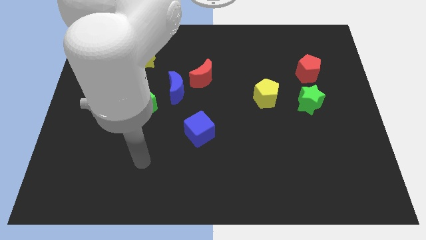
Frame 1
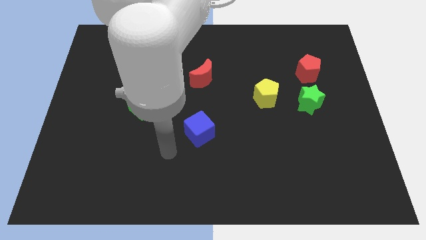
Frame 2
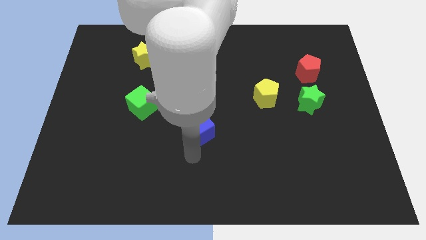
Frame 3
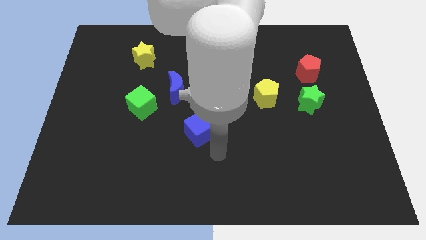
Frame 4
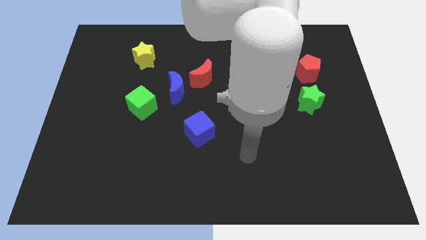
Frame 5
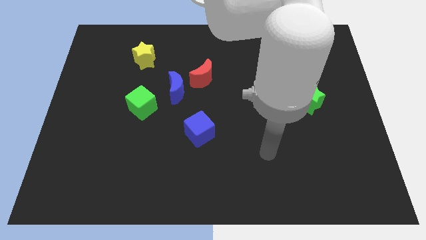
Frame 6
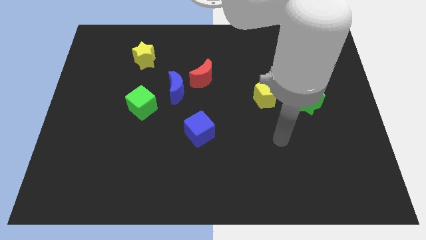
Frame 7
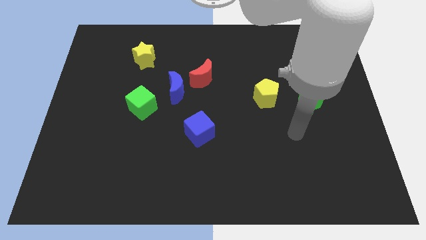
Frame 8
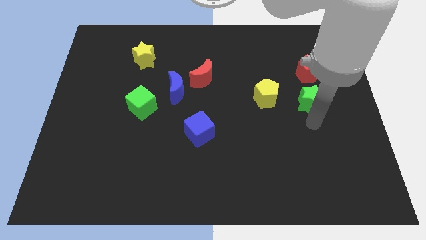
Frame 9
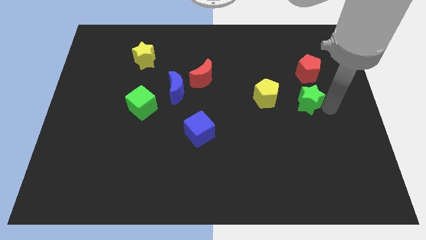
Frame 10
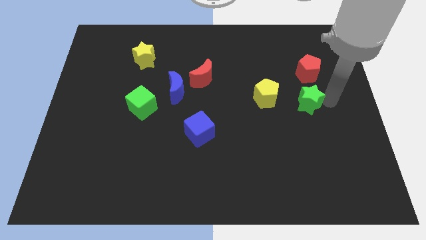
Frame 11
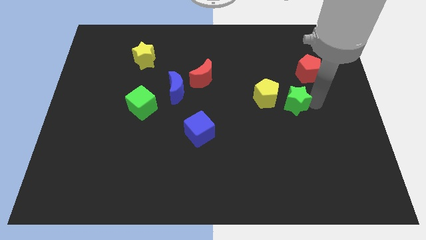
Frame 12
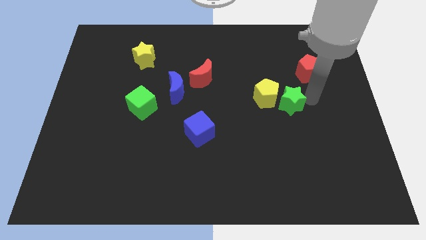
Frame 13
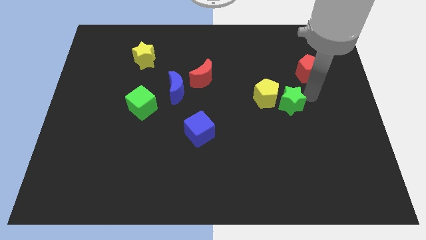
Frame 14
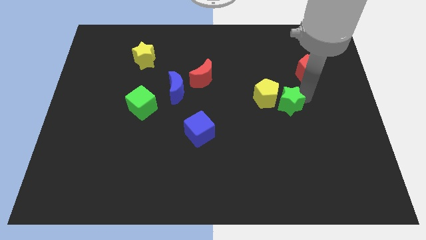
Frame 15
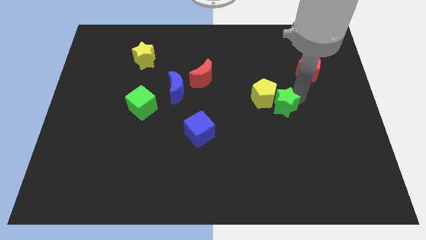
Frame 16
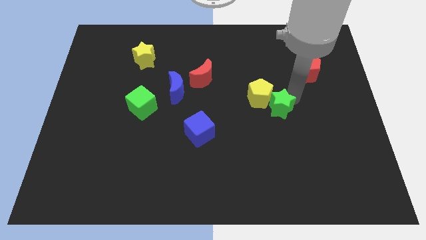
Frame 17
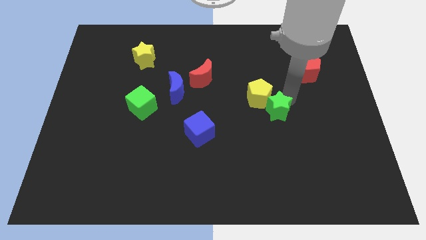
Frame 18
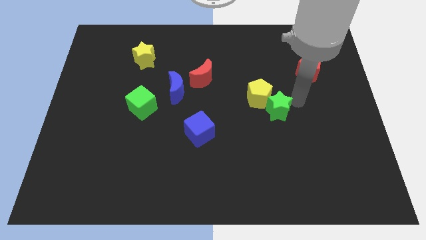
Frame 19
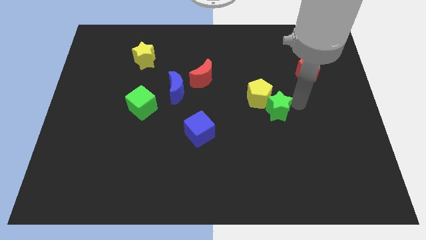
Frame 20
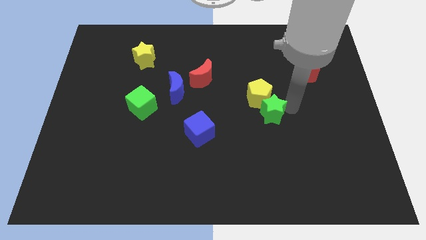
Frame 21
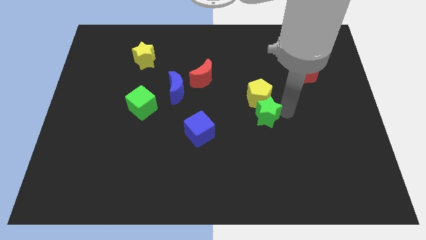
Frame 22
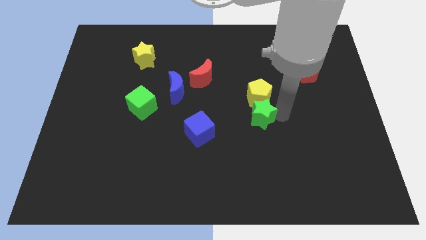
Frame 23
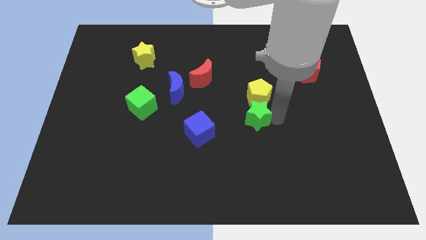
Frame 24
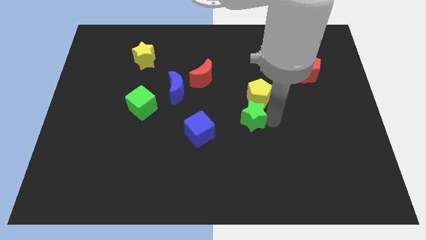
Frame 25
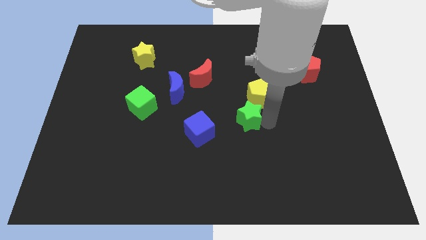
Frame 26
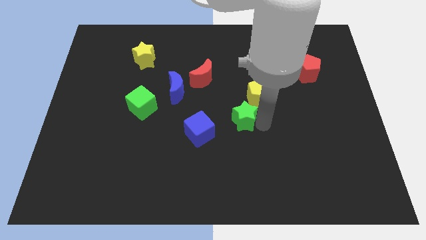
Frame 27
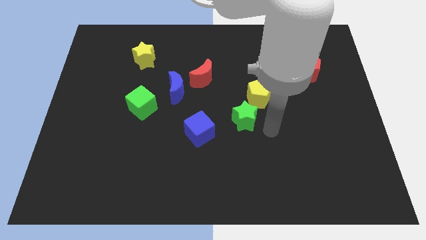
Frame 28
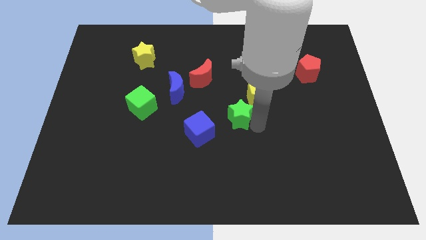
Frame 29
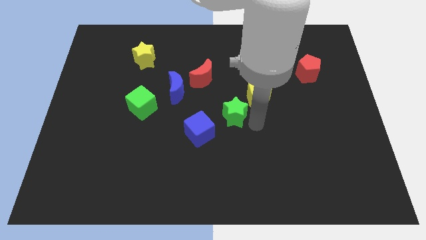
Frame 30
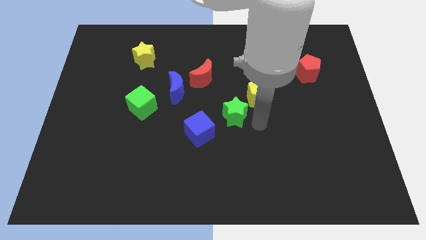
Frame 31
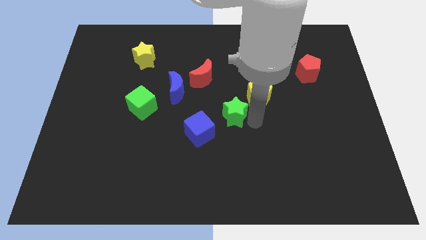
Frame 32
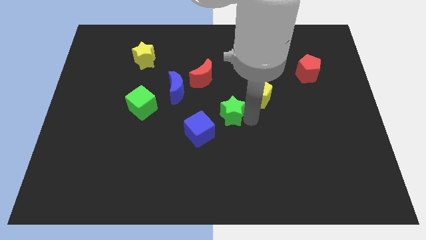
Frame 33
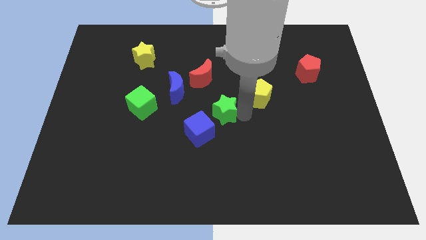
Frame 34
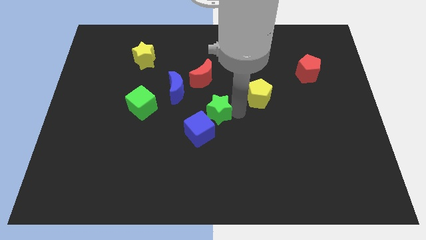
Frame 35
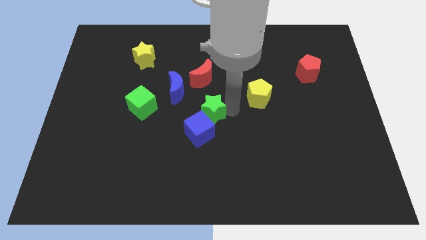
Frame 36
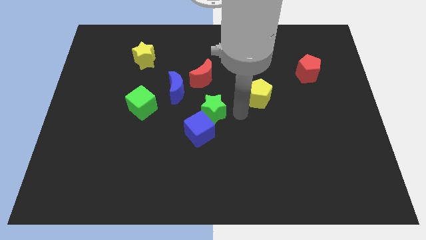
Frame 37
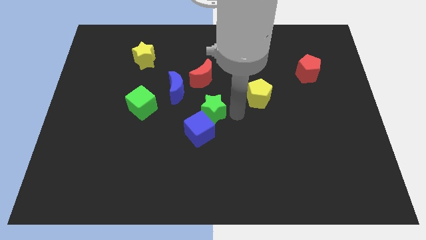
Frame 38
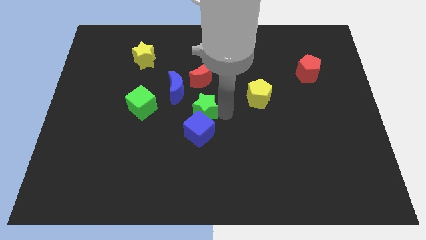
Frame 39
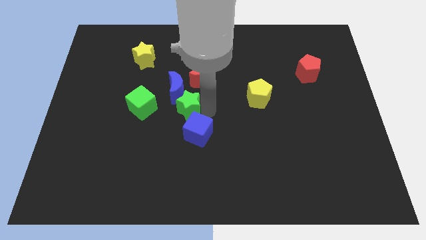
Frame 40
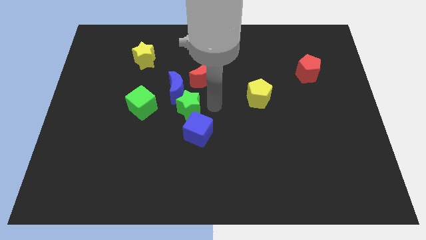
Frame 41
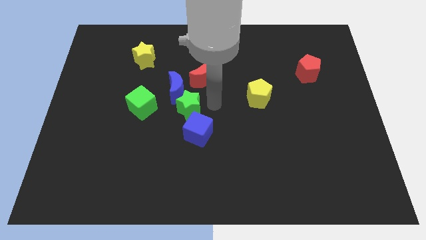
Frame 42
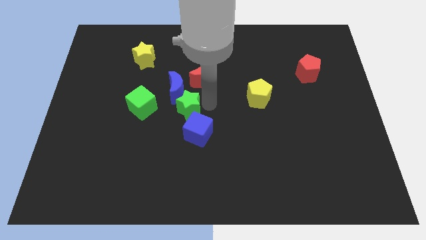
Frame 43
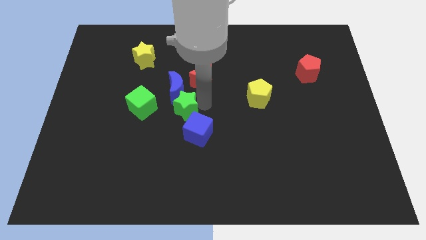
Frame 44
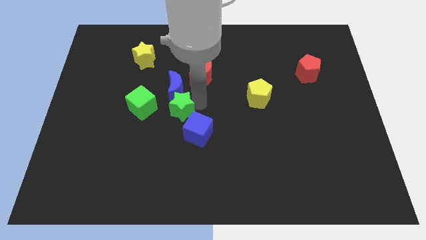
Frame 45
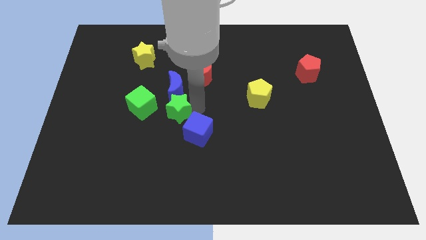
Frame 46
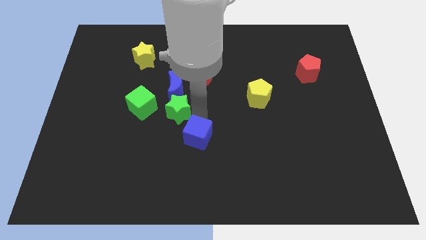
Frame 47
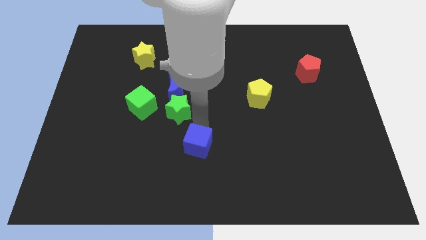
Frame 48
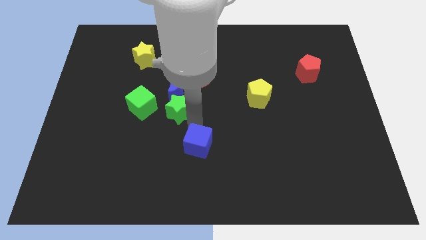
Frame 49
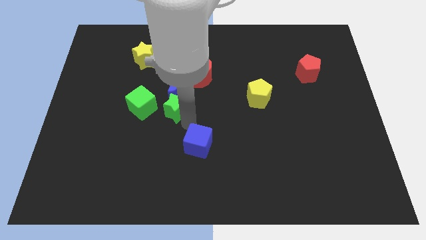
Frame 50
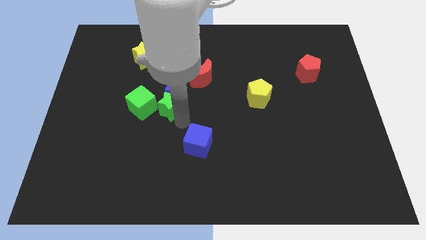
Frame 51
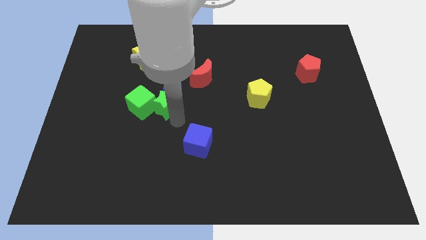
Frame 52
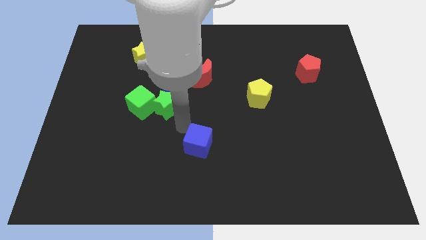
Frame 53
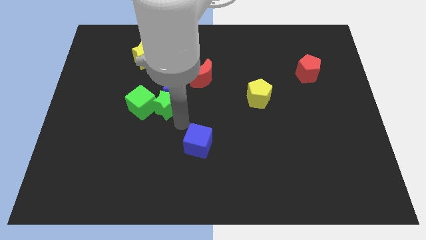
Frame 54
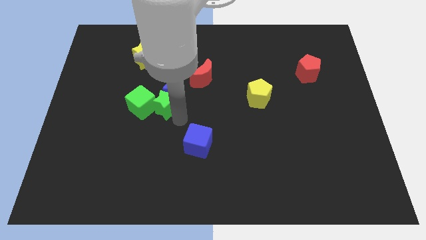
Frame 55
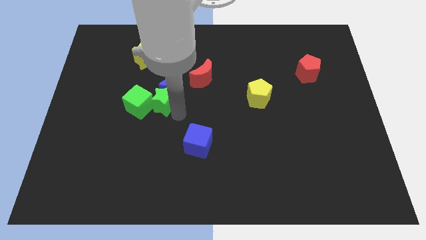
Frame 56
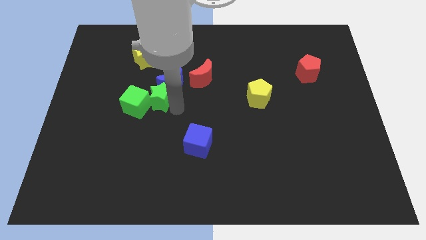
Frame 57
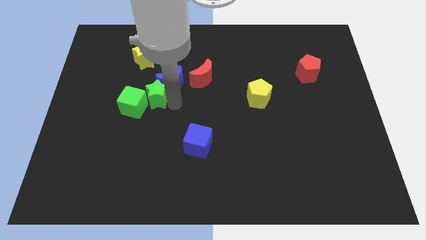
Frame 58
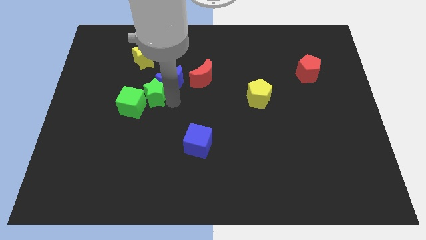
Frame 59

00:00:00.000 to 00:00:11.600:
put the green star left of the blue moon

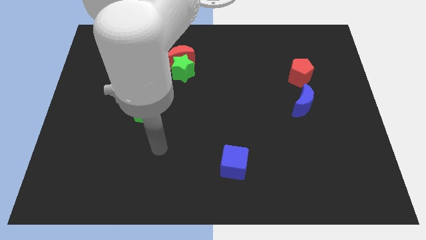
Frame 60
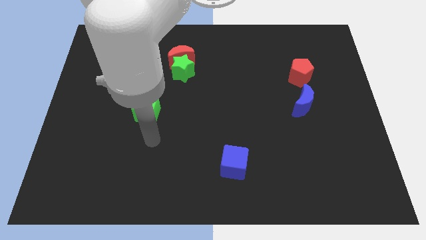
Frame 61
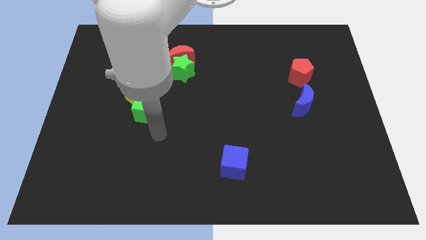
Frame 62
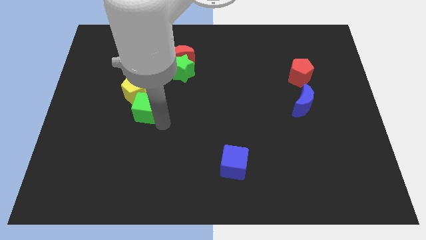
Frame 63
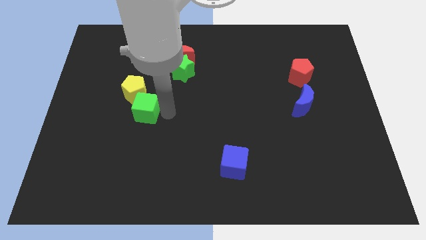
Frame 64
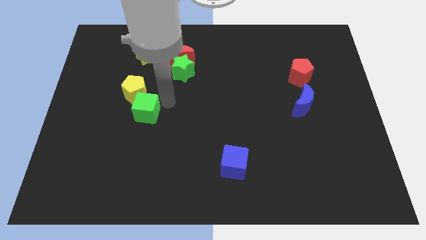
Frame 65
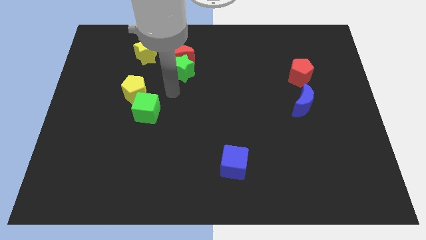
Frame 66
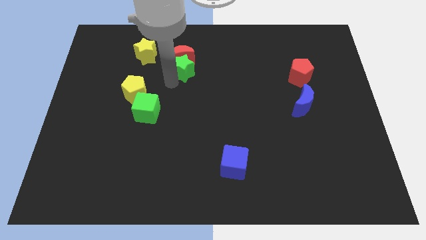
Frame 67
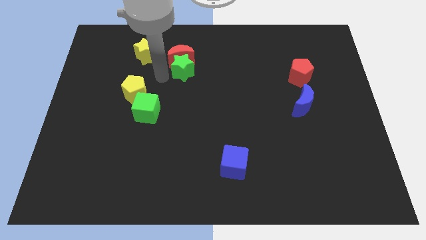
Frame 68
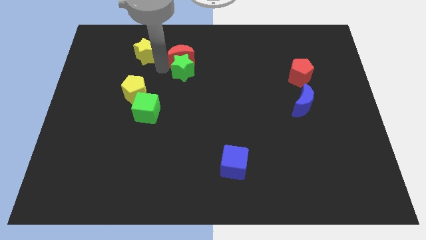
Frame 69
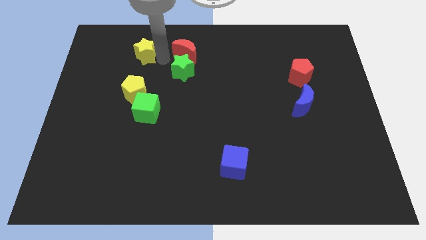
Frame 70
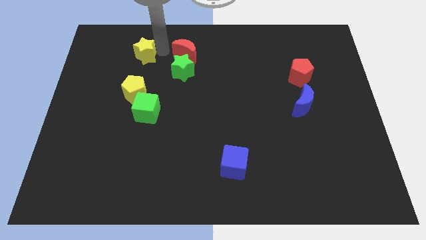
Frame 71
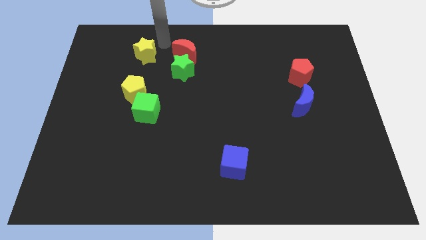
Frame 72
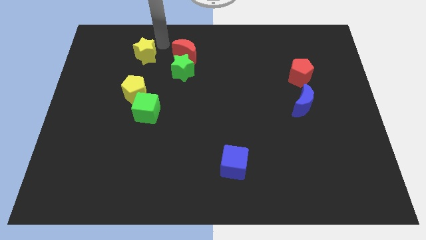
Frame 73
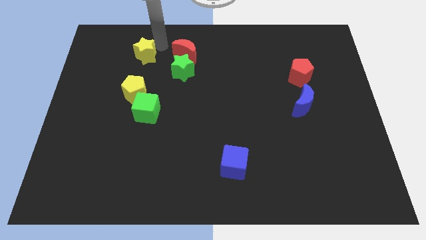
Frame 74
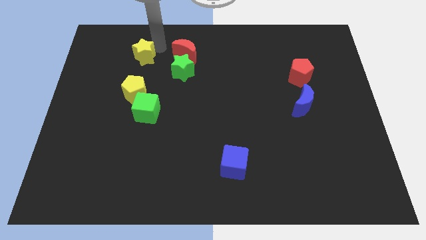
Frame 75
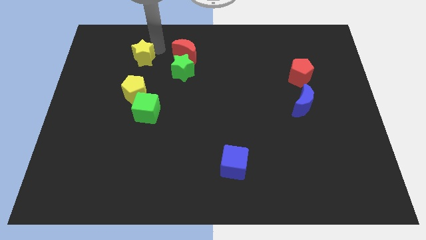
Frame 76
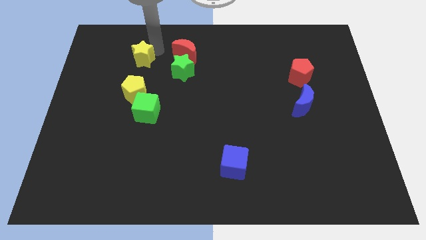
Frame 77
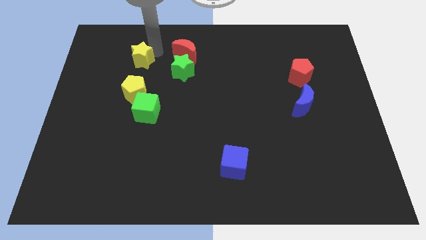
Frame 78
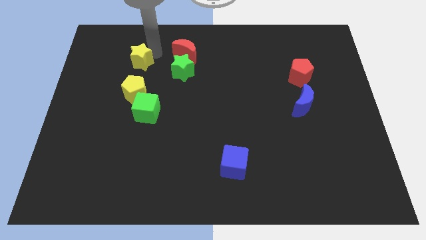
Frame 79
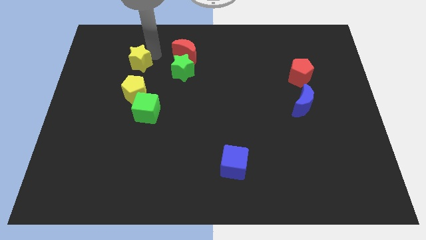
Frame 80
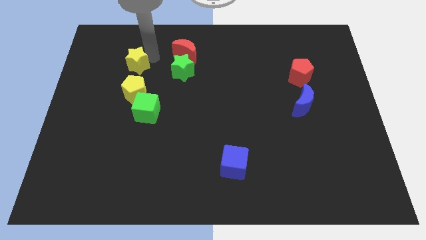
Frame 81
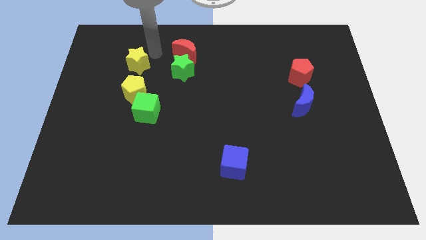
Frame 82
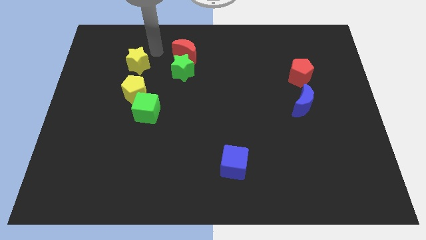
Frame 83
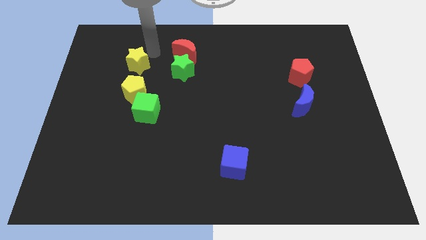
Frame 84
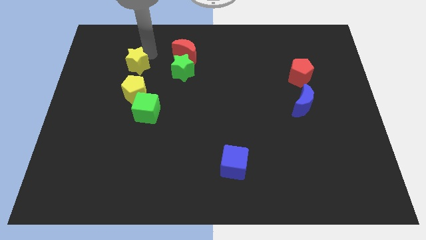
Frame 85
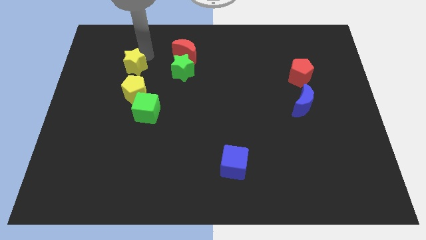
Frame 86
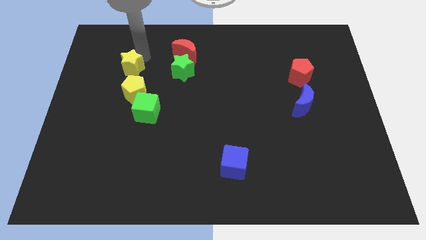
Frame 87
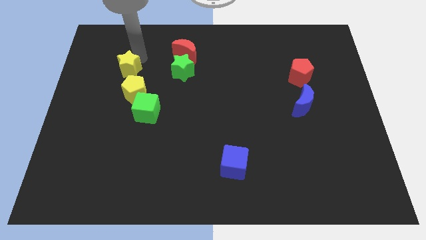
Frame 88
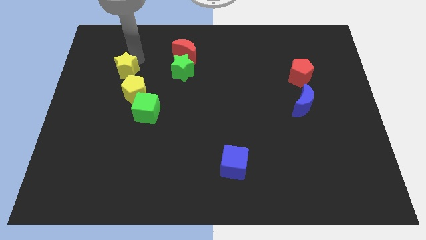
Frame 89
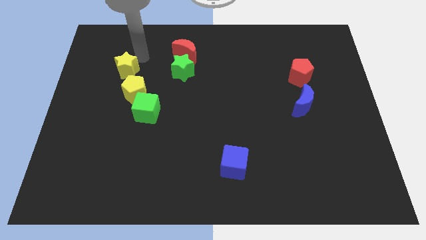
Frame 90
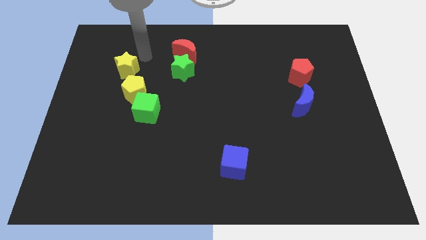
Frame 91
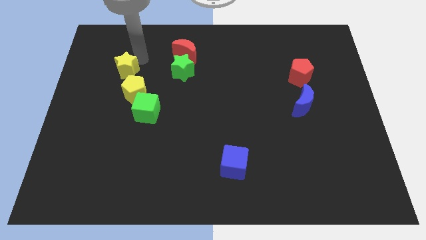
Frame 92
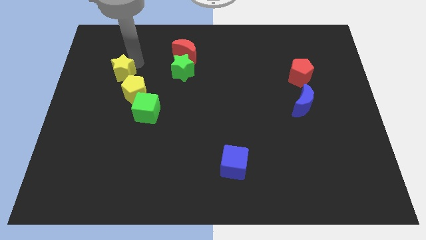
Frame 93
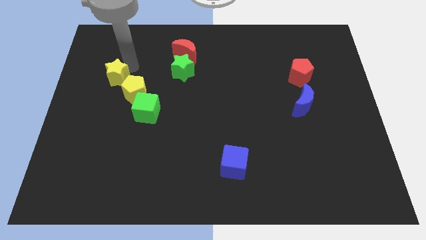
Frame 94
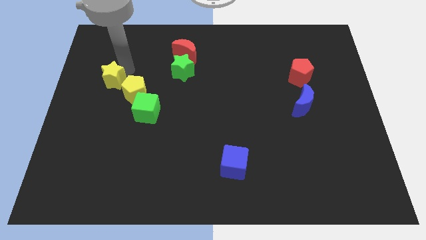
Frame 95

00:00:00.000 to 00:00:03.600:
push the yellow star left of the yellow pentagon
